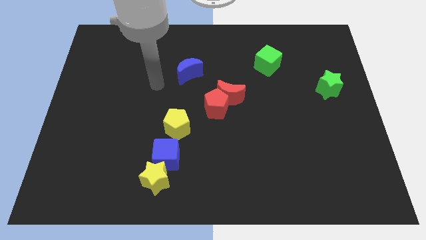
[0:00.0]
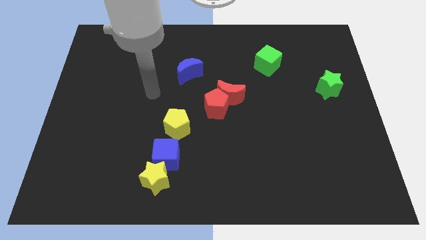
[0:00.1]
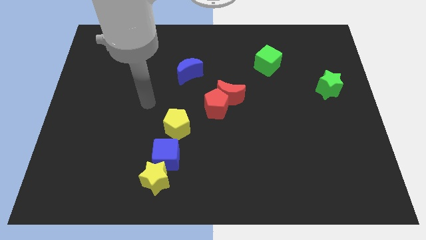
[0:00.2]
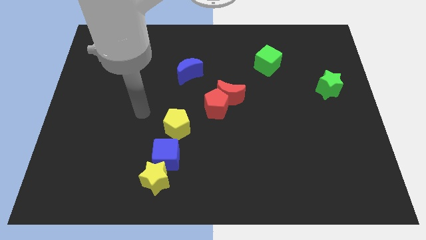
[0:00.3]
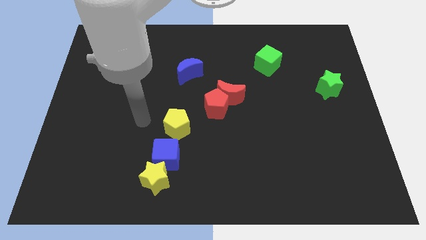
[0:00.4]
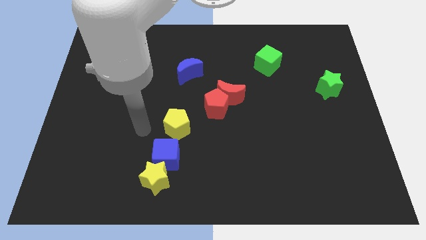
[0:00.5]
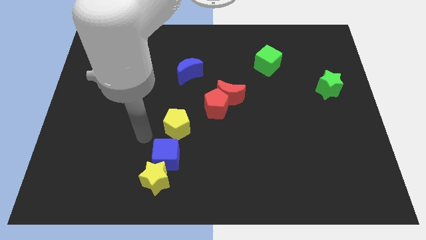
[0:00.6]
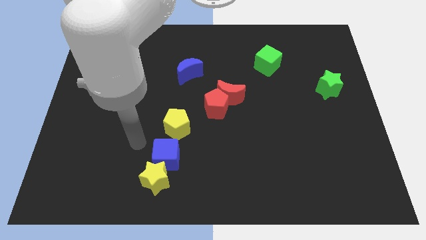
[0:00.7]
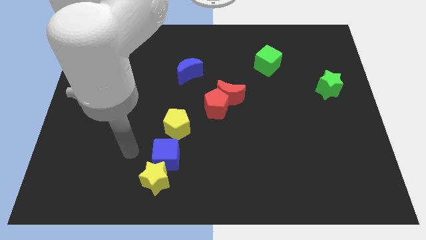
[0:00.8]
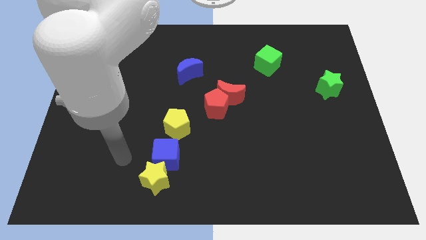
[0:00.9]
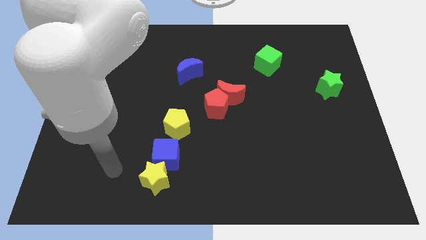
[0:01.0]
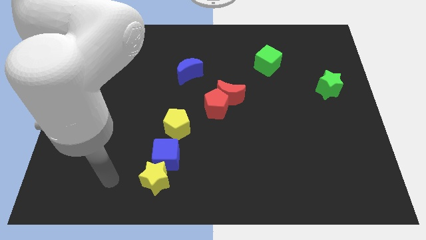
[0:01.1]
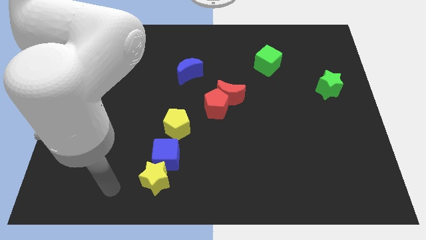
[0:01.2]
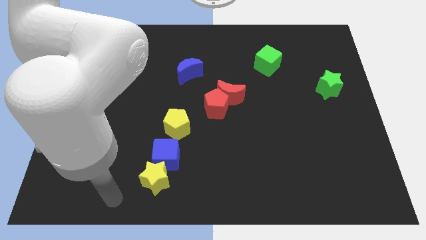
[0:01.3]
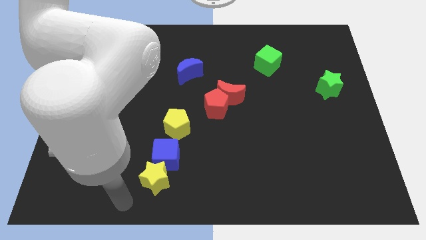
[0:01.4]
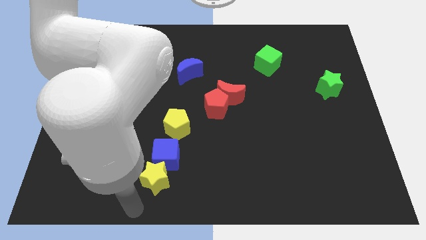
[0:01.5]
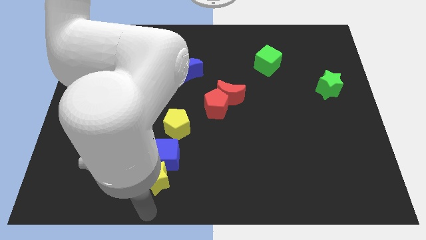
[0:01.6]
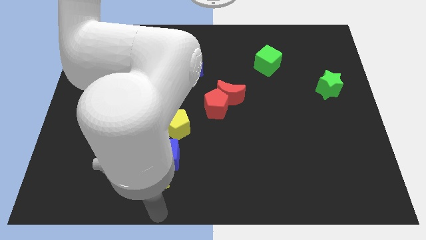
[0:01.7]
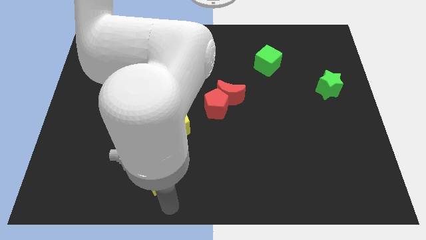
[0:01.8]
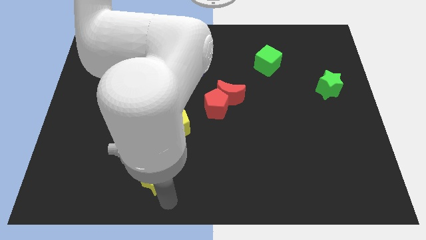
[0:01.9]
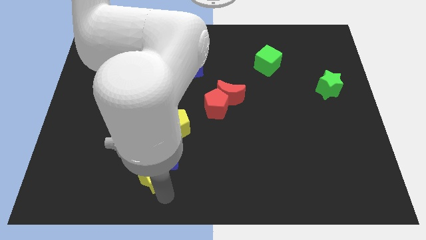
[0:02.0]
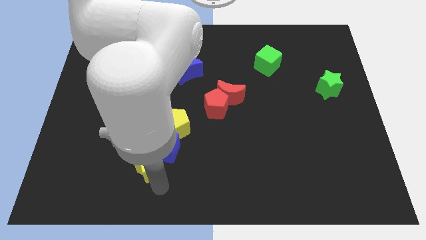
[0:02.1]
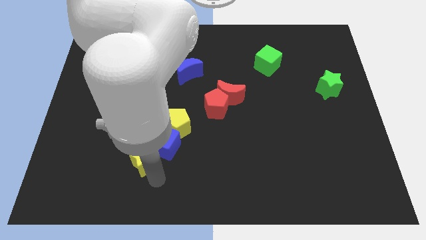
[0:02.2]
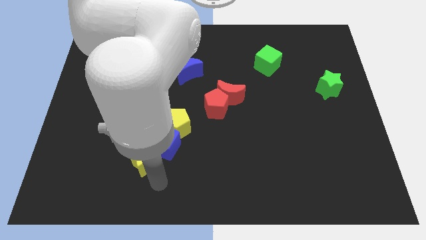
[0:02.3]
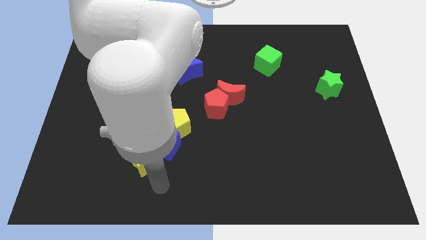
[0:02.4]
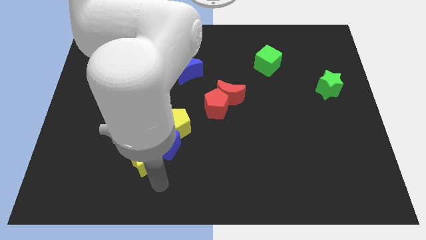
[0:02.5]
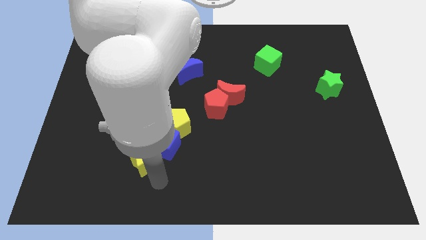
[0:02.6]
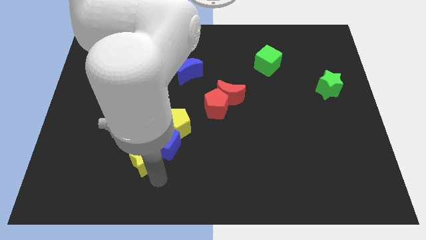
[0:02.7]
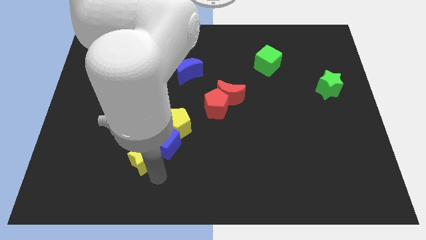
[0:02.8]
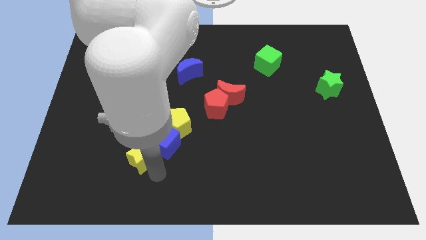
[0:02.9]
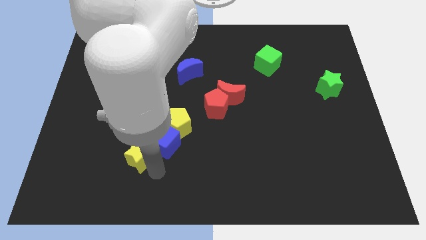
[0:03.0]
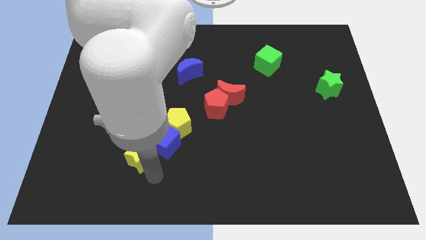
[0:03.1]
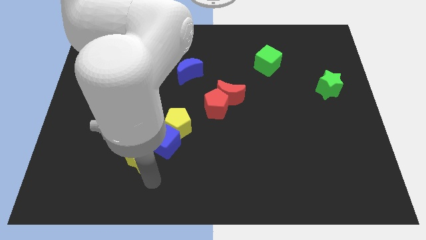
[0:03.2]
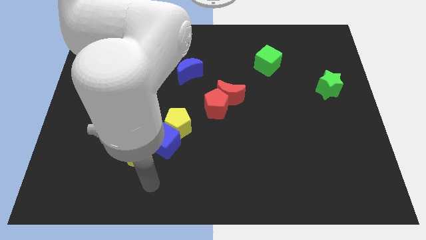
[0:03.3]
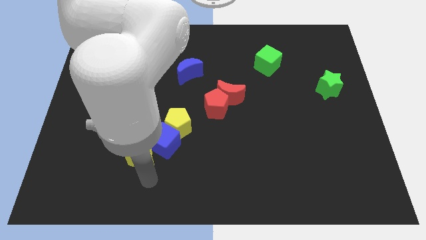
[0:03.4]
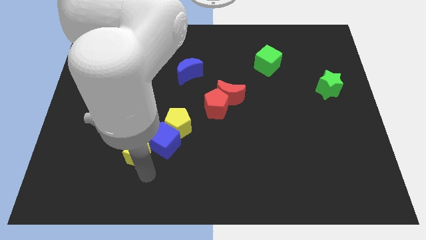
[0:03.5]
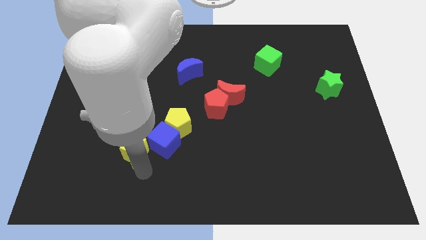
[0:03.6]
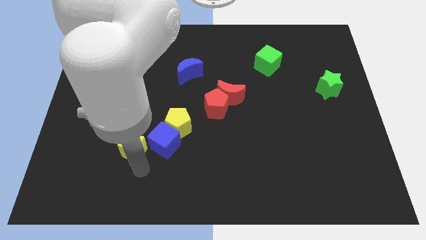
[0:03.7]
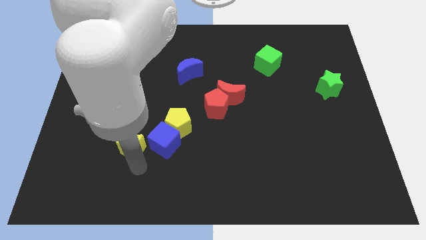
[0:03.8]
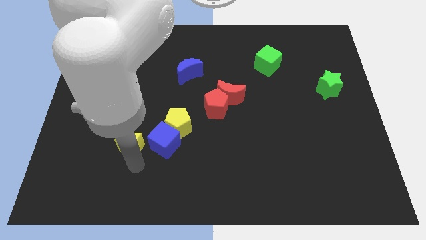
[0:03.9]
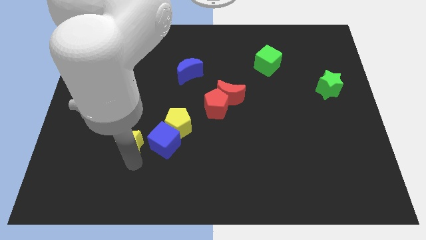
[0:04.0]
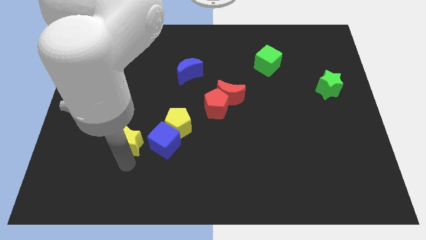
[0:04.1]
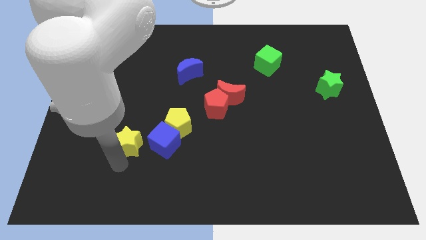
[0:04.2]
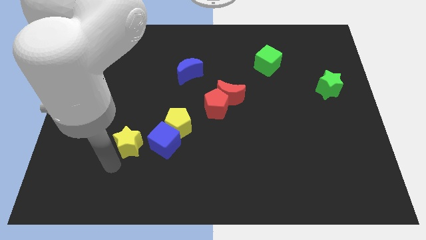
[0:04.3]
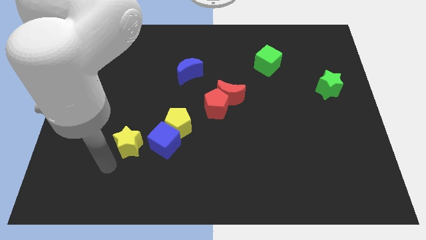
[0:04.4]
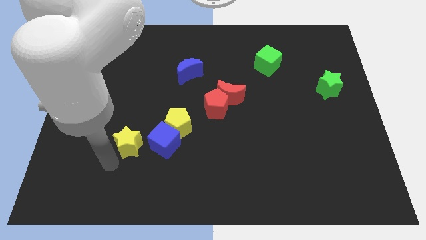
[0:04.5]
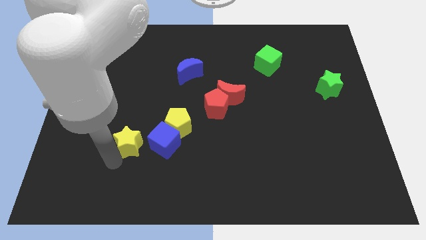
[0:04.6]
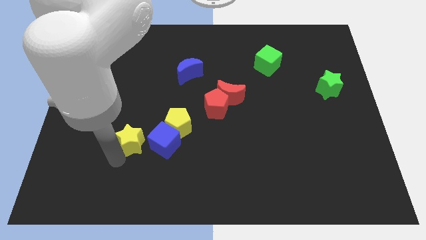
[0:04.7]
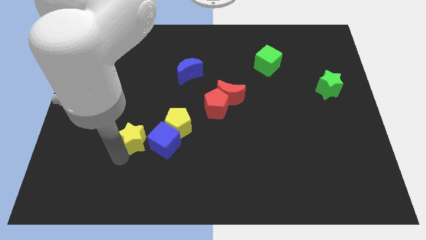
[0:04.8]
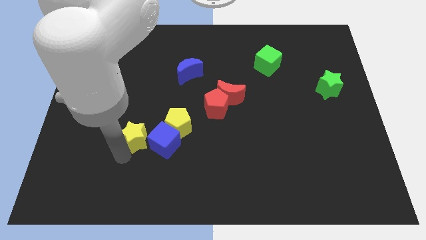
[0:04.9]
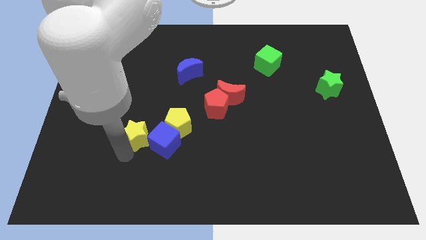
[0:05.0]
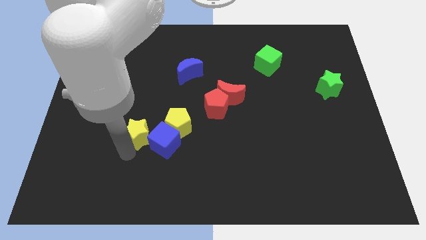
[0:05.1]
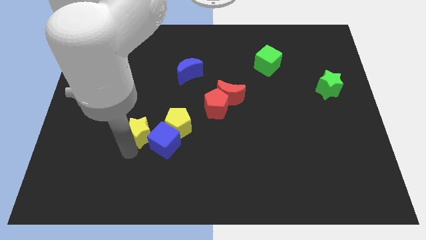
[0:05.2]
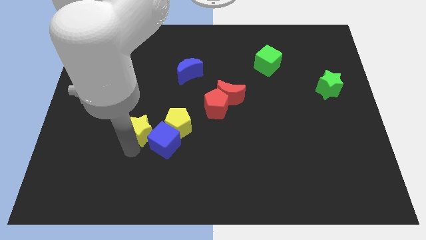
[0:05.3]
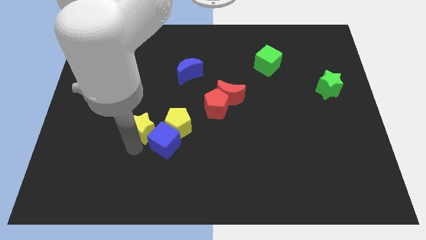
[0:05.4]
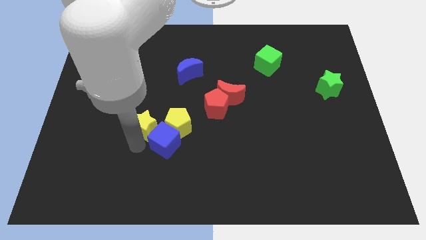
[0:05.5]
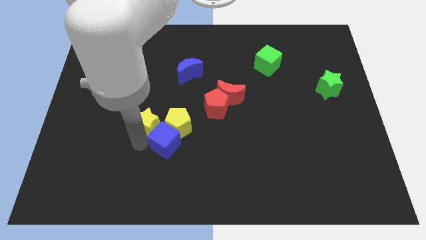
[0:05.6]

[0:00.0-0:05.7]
move the yellow star diagonally up and to the left of the yellow pentagon
